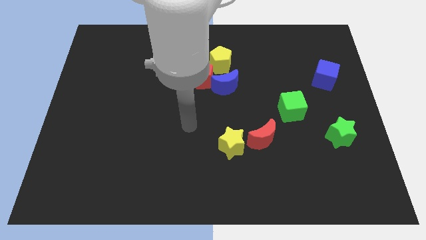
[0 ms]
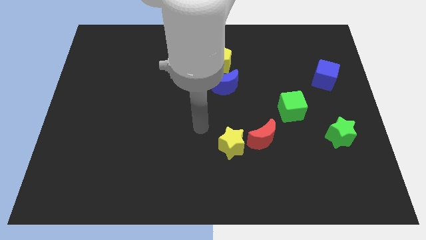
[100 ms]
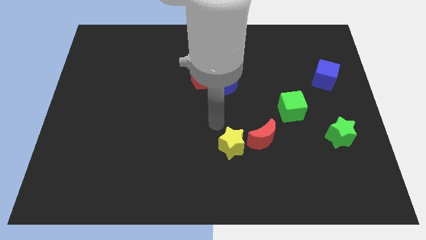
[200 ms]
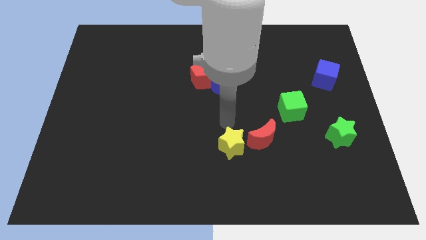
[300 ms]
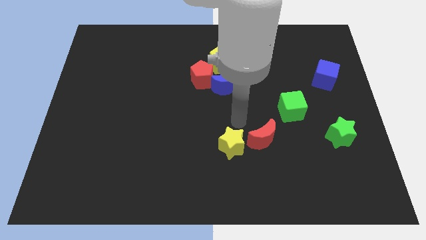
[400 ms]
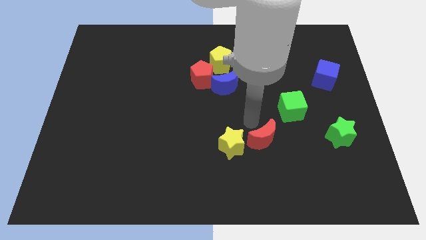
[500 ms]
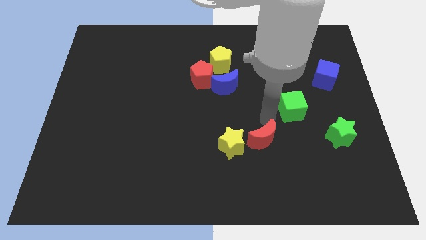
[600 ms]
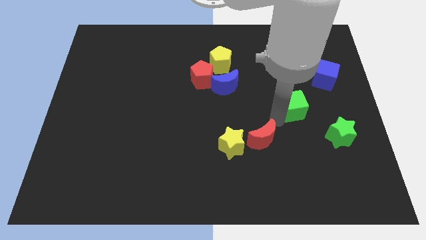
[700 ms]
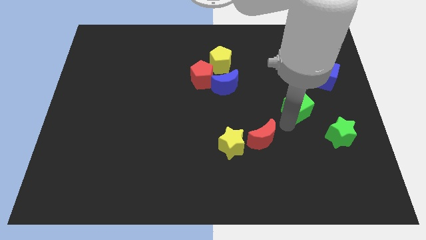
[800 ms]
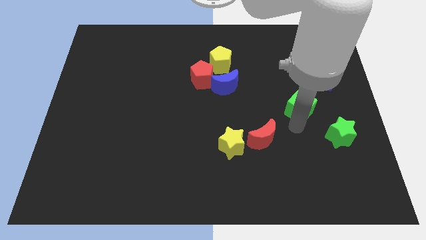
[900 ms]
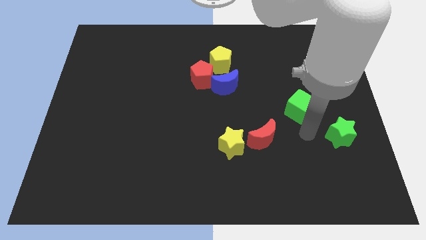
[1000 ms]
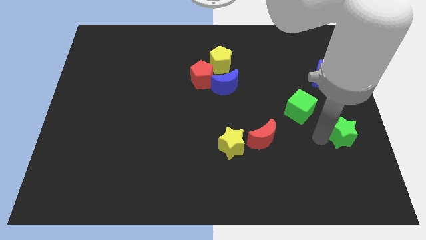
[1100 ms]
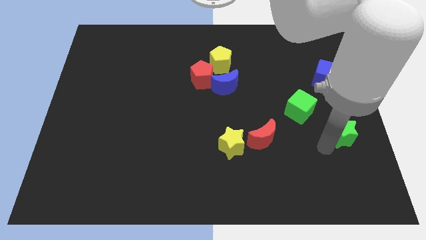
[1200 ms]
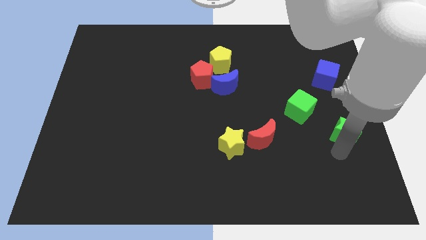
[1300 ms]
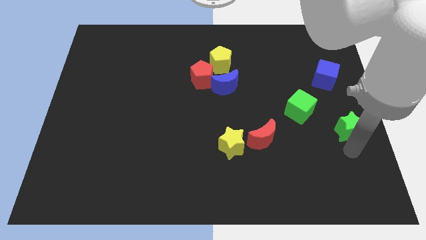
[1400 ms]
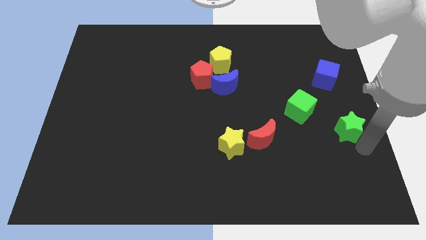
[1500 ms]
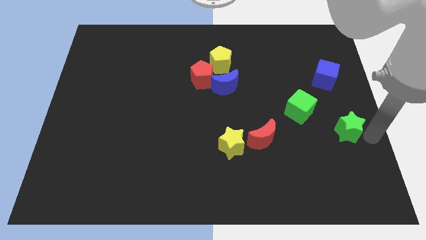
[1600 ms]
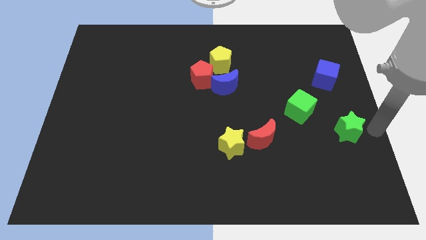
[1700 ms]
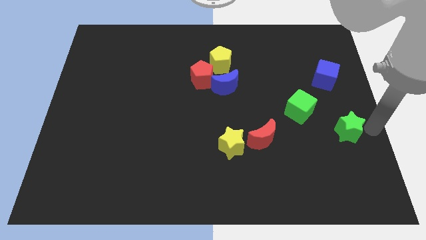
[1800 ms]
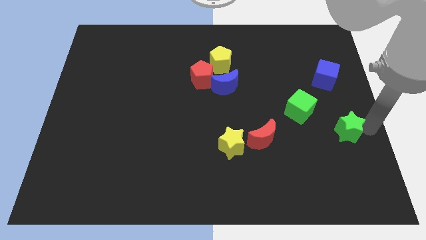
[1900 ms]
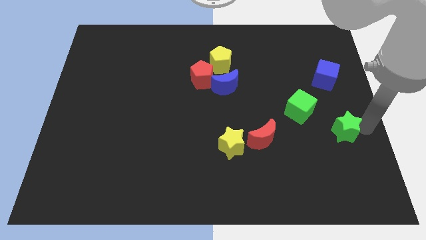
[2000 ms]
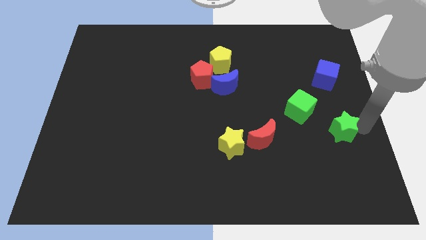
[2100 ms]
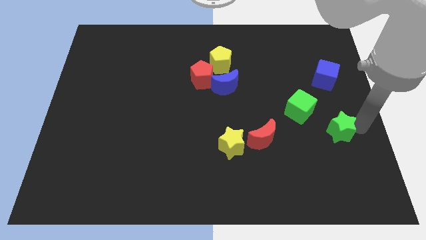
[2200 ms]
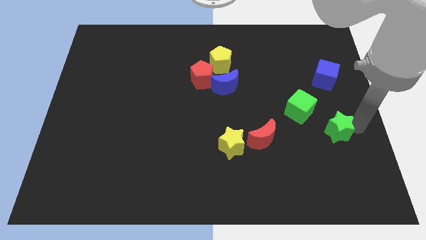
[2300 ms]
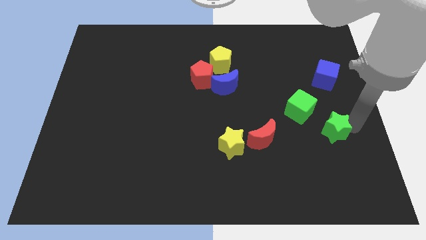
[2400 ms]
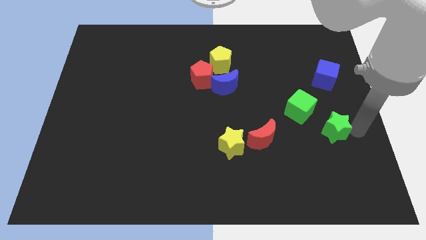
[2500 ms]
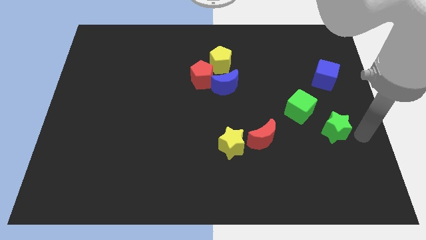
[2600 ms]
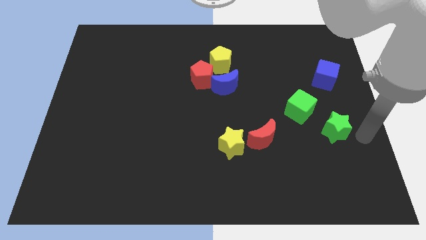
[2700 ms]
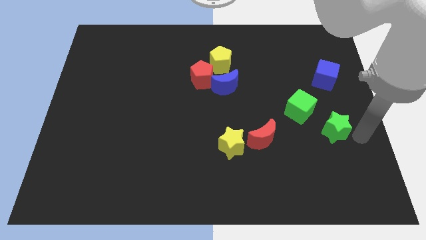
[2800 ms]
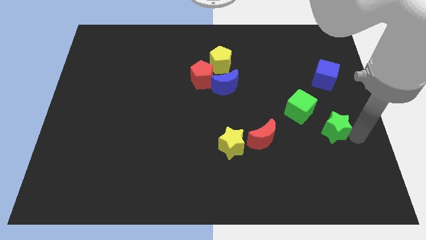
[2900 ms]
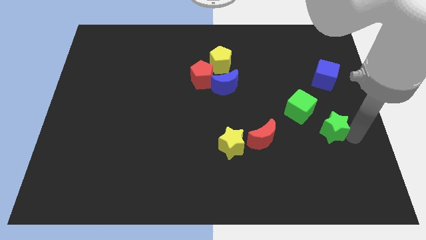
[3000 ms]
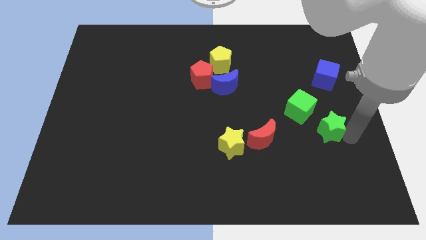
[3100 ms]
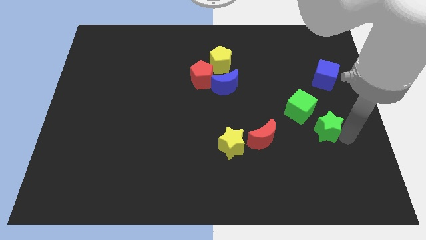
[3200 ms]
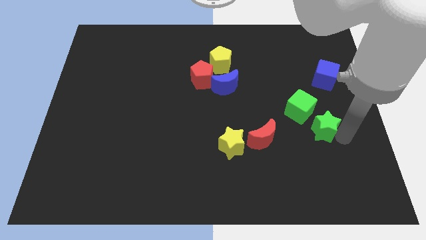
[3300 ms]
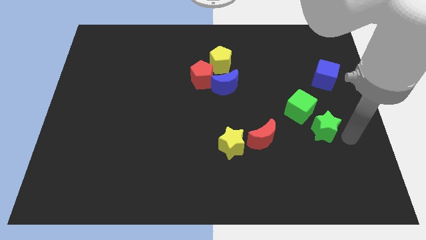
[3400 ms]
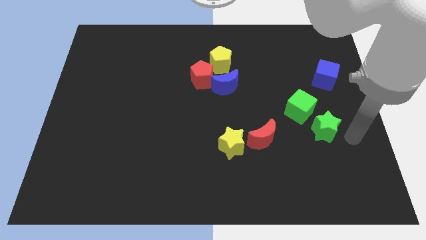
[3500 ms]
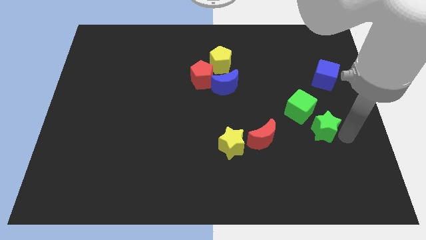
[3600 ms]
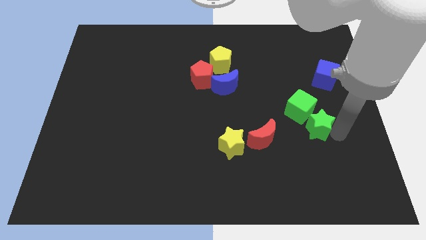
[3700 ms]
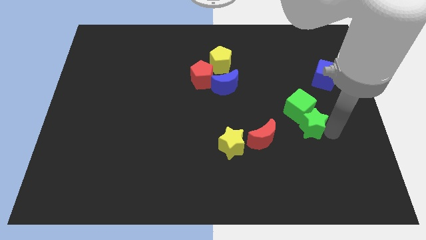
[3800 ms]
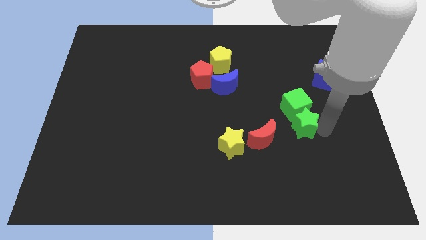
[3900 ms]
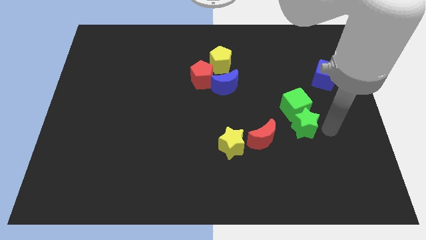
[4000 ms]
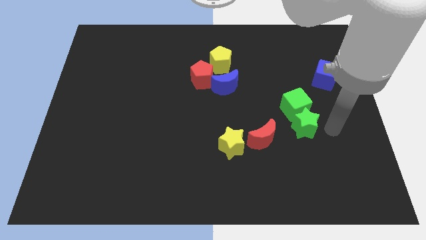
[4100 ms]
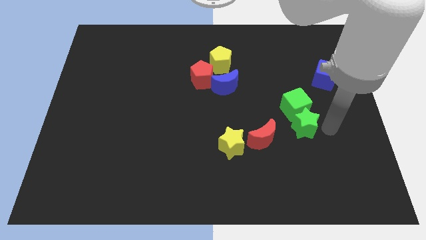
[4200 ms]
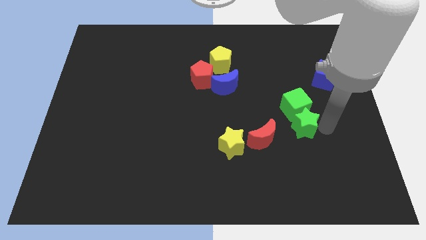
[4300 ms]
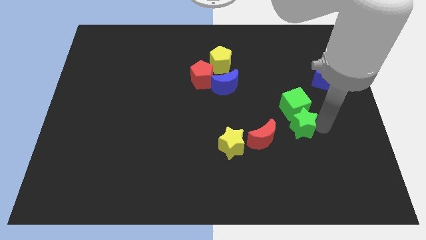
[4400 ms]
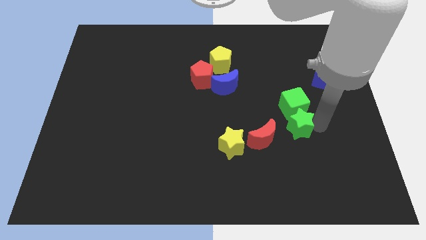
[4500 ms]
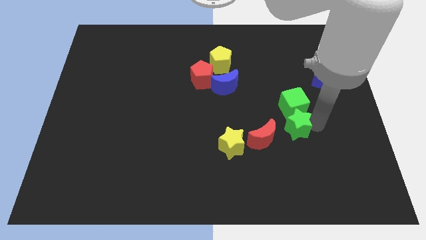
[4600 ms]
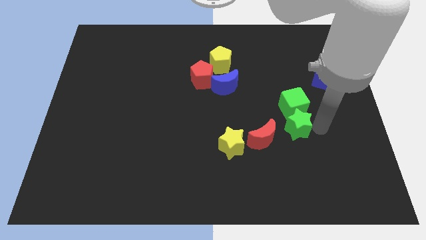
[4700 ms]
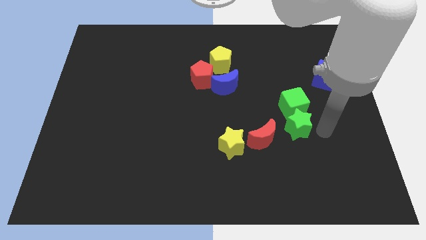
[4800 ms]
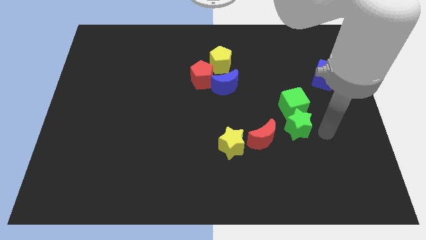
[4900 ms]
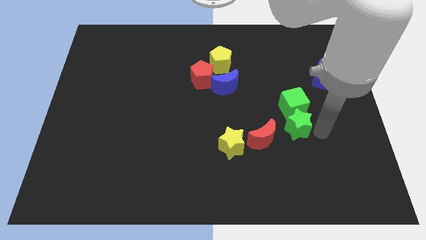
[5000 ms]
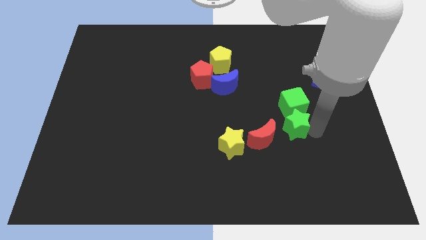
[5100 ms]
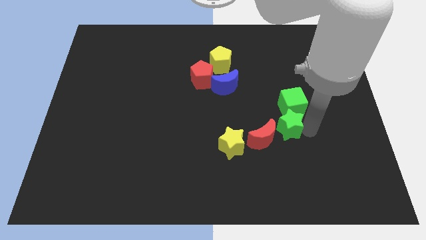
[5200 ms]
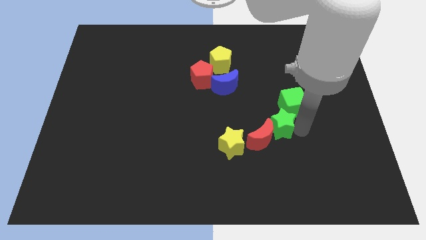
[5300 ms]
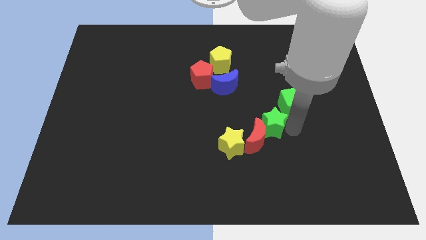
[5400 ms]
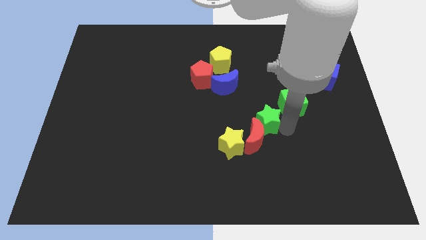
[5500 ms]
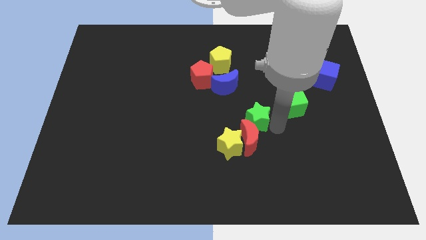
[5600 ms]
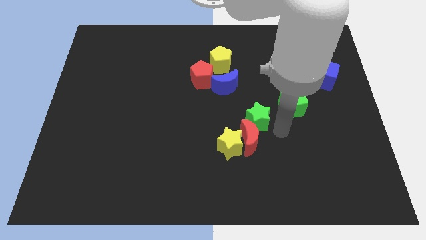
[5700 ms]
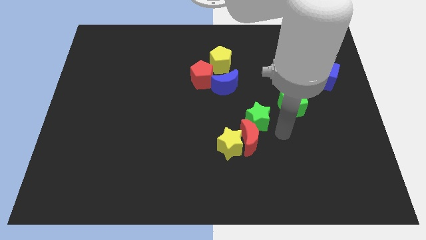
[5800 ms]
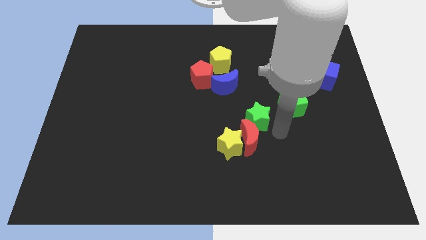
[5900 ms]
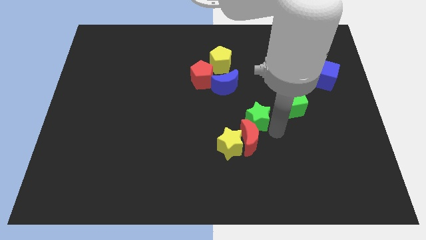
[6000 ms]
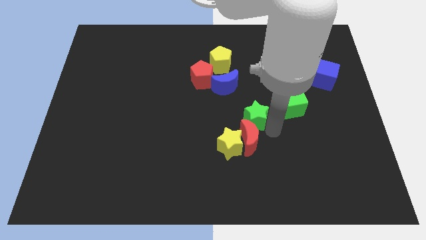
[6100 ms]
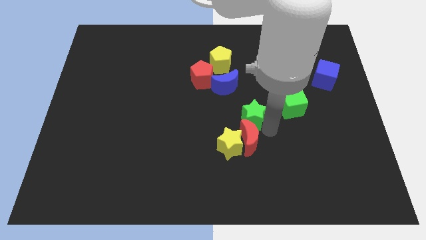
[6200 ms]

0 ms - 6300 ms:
push the green star above the yellow star

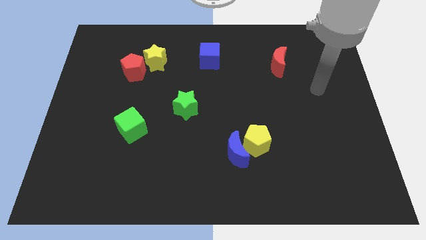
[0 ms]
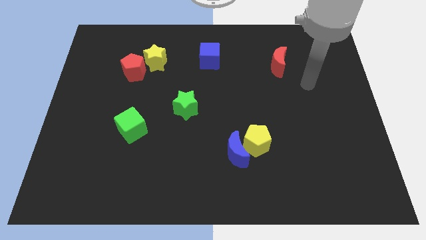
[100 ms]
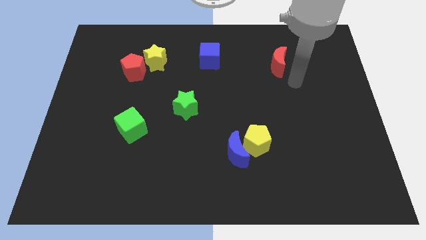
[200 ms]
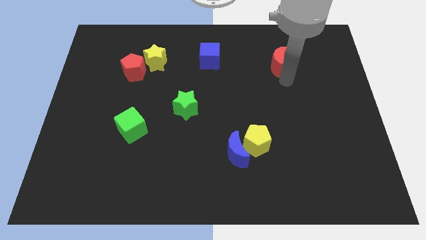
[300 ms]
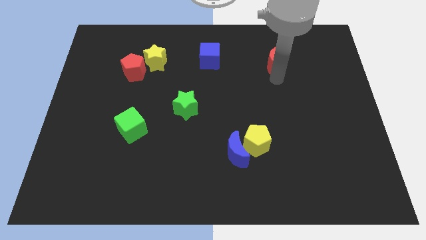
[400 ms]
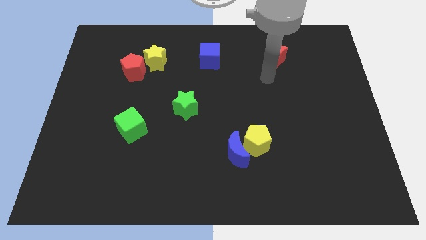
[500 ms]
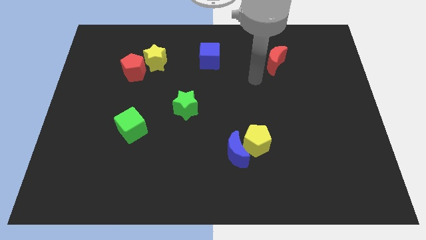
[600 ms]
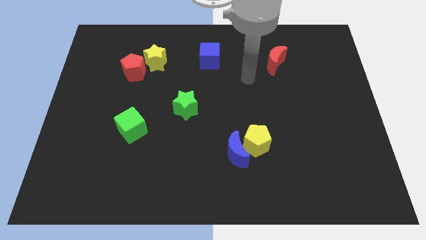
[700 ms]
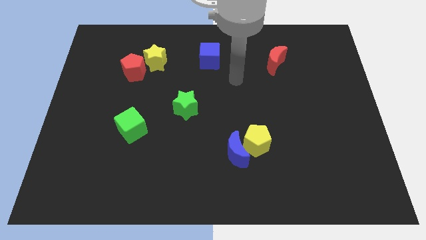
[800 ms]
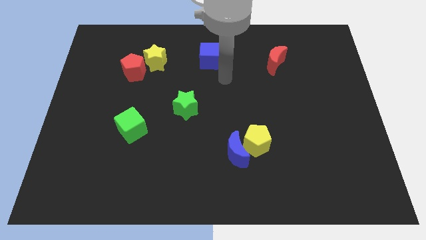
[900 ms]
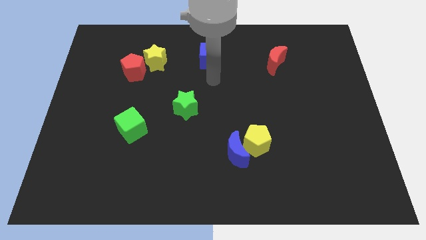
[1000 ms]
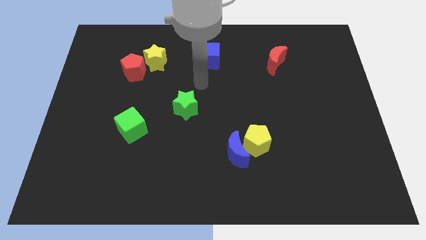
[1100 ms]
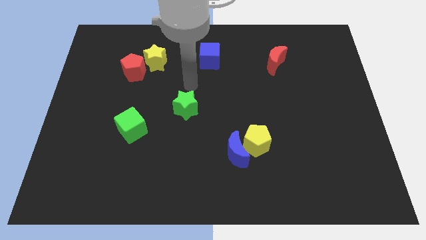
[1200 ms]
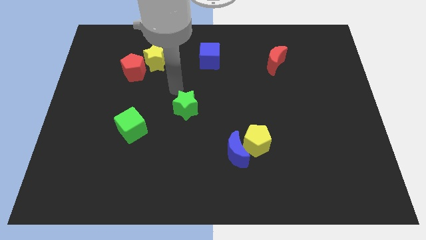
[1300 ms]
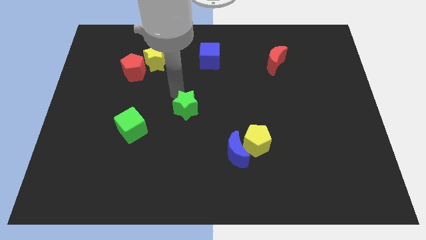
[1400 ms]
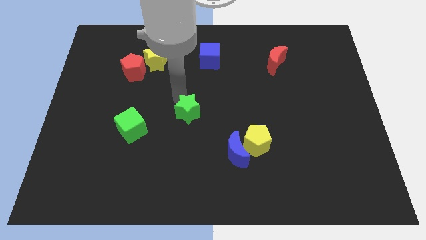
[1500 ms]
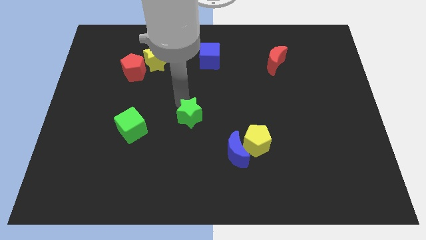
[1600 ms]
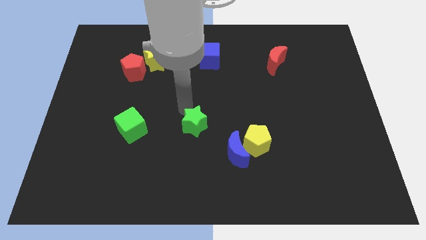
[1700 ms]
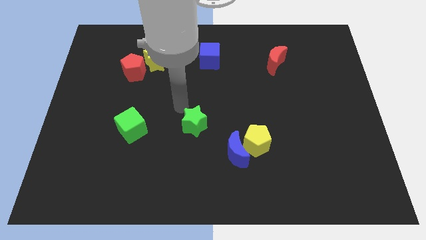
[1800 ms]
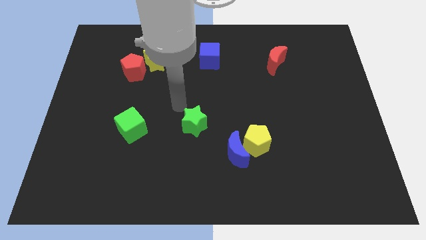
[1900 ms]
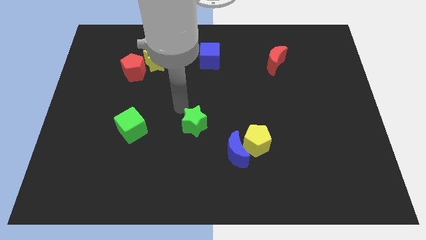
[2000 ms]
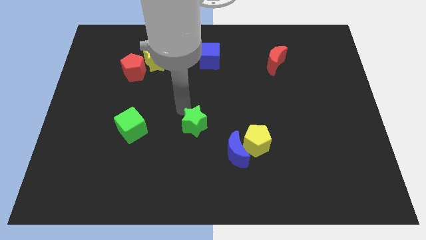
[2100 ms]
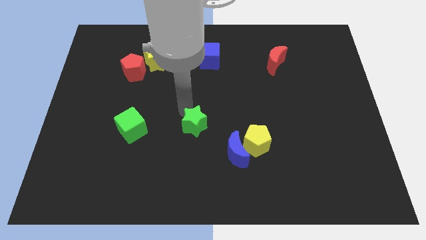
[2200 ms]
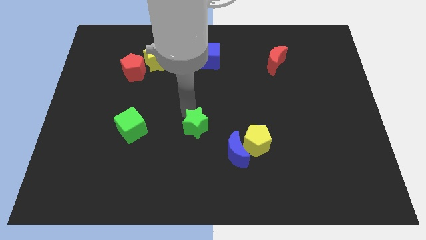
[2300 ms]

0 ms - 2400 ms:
slide the green star to the left side of the yellow pentagon
